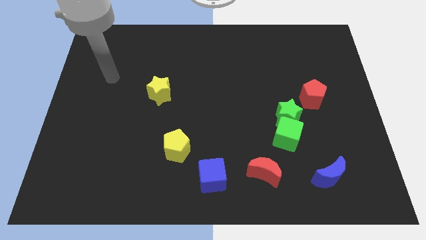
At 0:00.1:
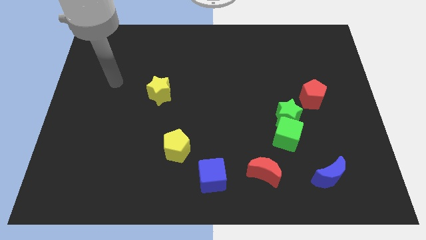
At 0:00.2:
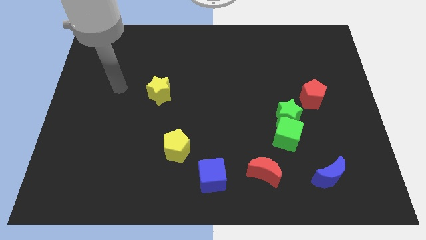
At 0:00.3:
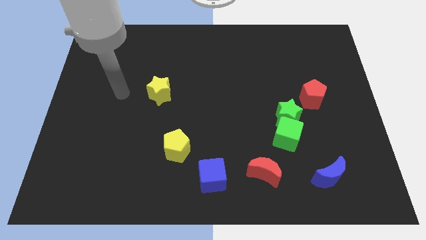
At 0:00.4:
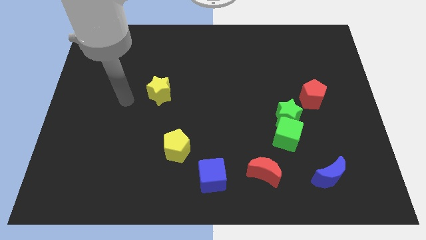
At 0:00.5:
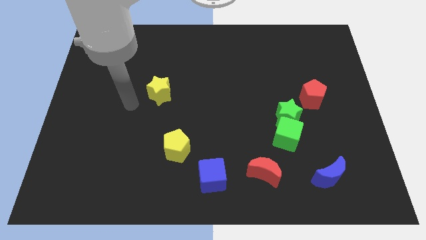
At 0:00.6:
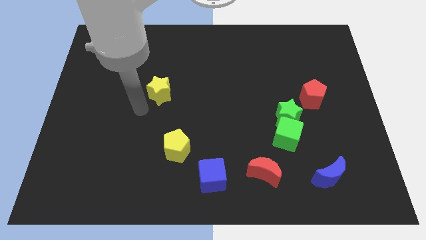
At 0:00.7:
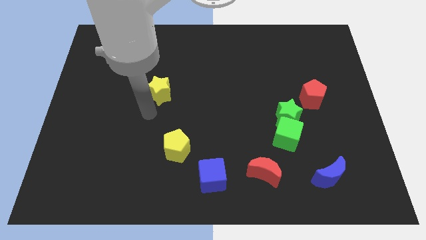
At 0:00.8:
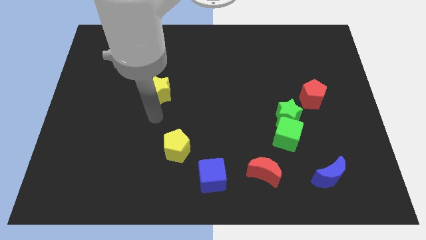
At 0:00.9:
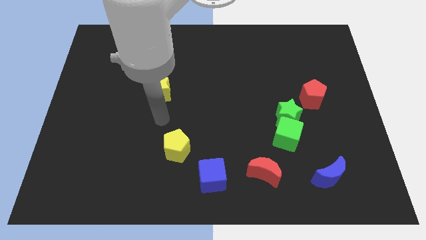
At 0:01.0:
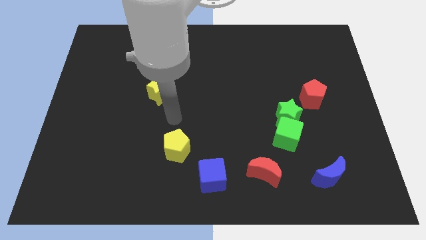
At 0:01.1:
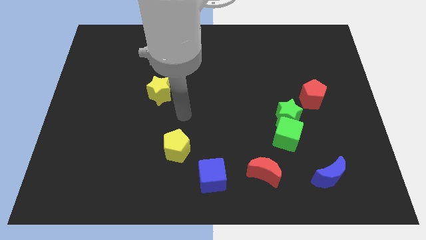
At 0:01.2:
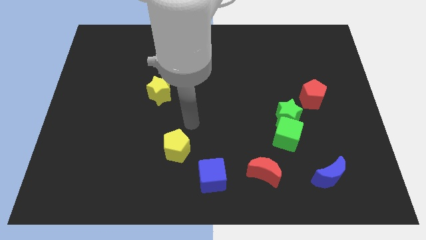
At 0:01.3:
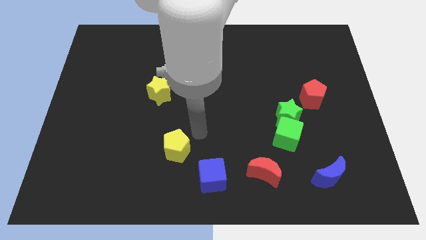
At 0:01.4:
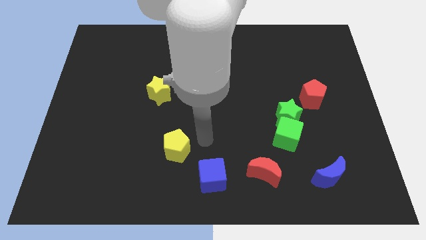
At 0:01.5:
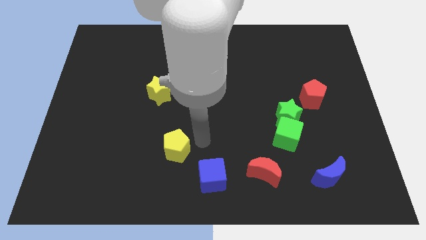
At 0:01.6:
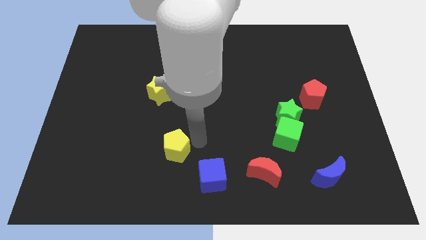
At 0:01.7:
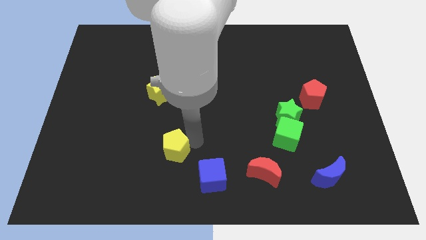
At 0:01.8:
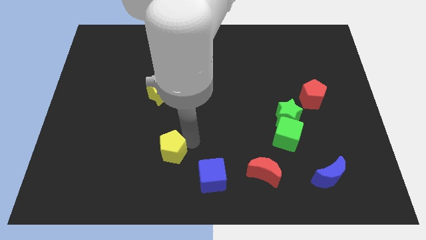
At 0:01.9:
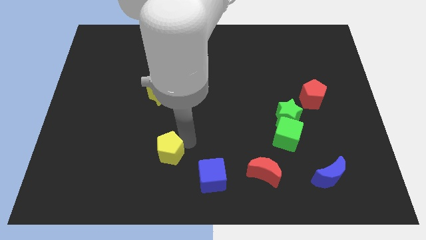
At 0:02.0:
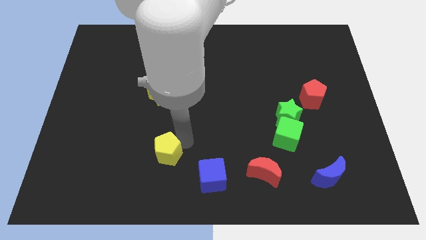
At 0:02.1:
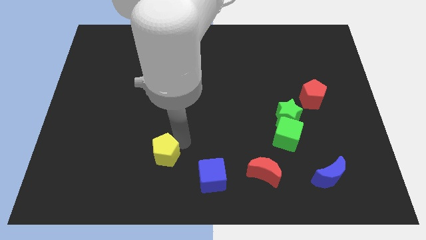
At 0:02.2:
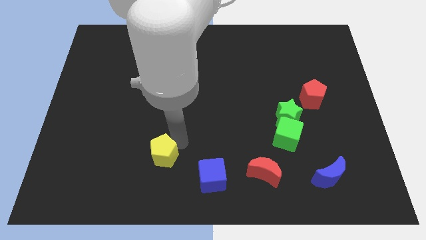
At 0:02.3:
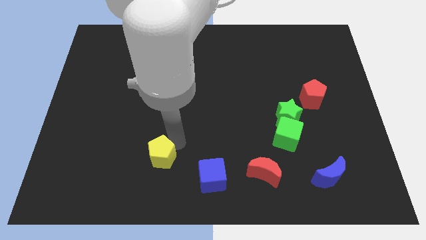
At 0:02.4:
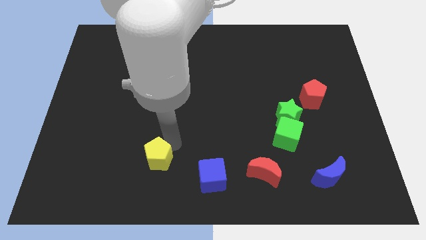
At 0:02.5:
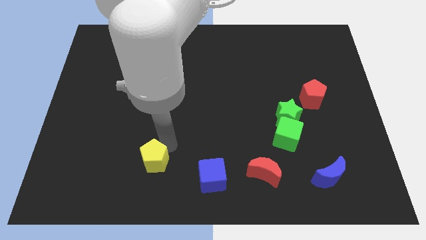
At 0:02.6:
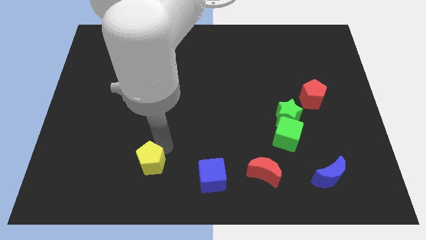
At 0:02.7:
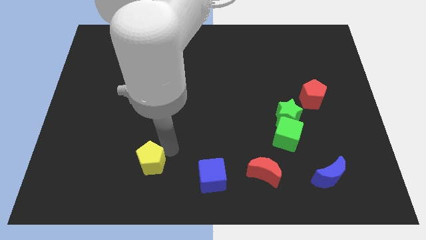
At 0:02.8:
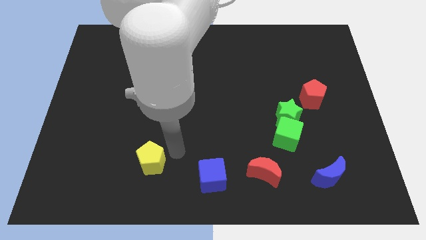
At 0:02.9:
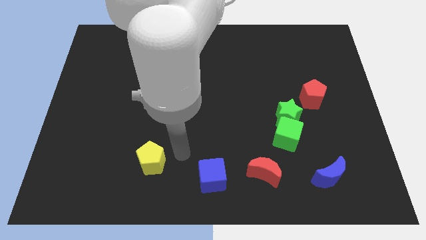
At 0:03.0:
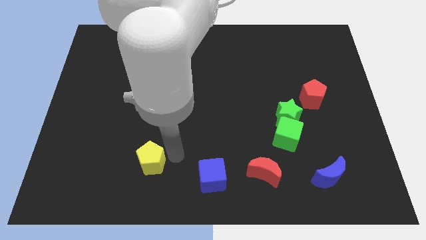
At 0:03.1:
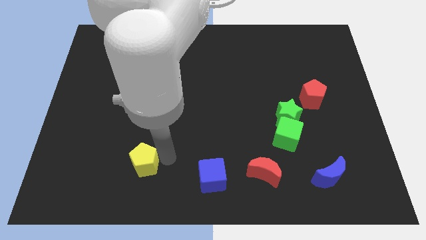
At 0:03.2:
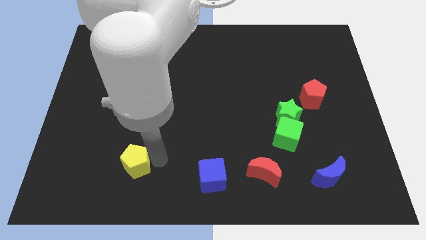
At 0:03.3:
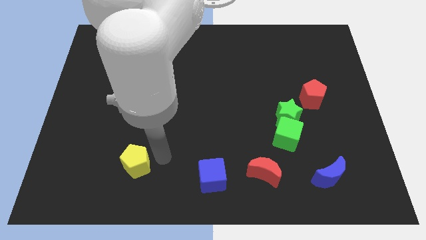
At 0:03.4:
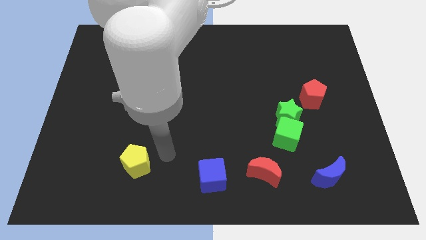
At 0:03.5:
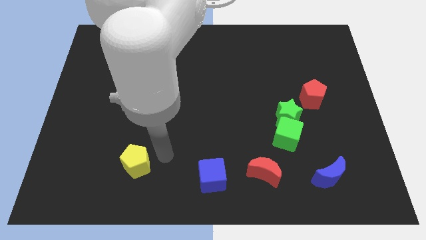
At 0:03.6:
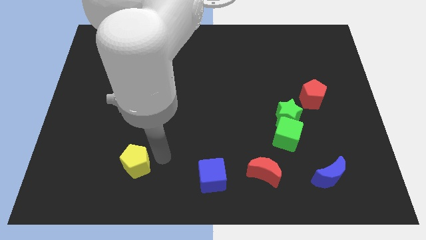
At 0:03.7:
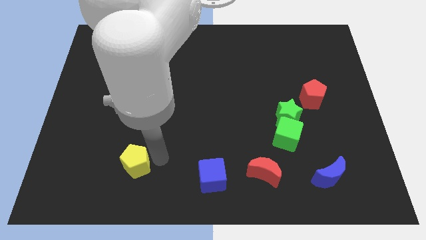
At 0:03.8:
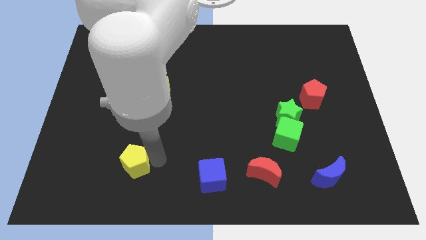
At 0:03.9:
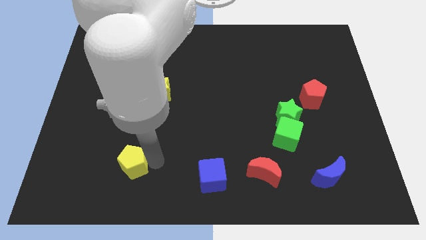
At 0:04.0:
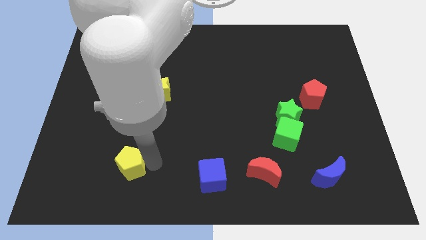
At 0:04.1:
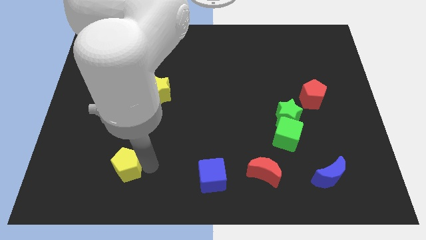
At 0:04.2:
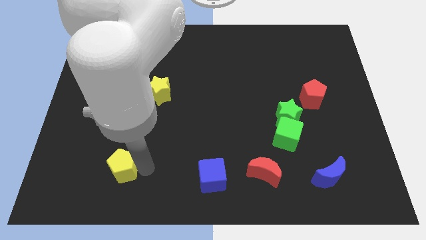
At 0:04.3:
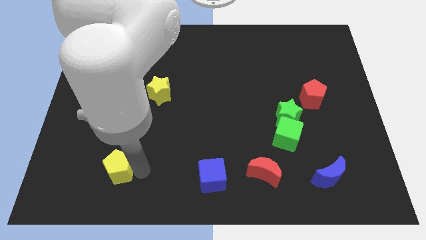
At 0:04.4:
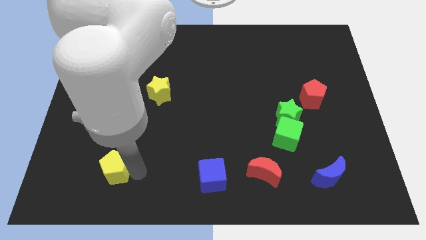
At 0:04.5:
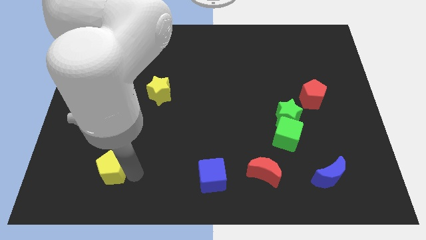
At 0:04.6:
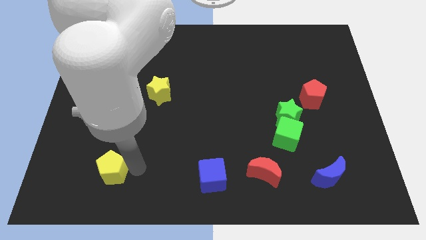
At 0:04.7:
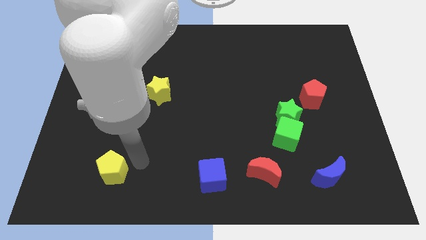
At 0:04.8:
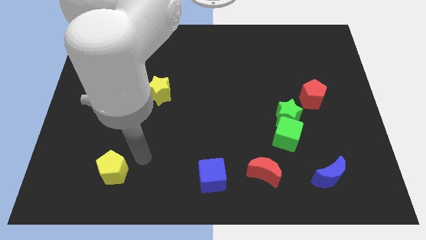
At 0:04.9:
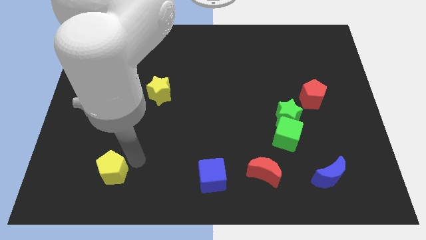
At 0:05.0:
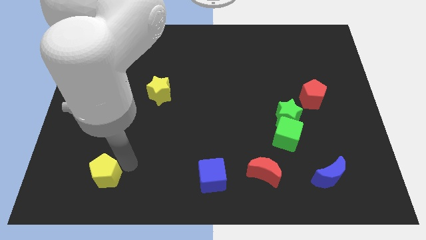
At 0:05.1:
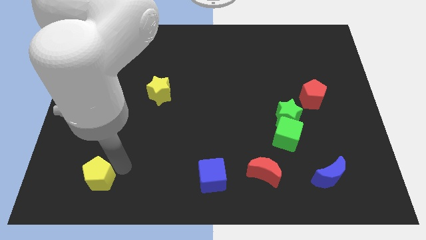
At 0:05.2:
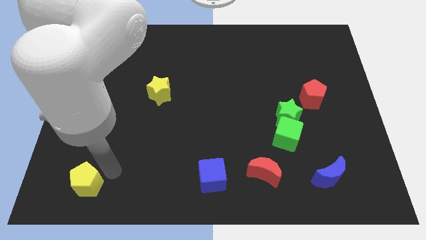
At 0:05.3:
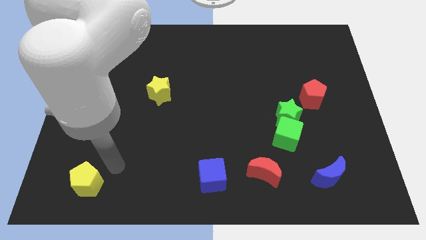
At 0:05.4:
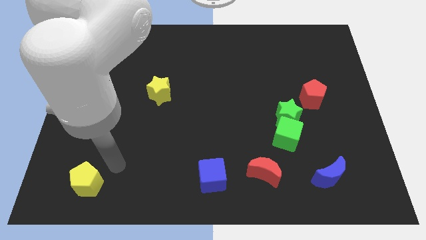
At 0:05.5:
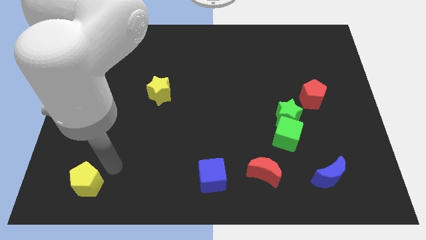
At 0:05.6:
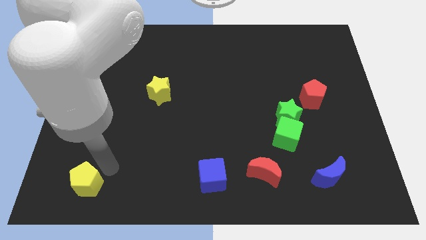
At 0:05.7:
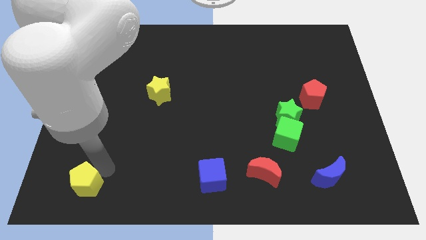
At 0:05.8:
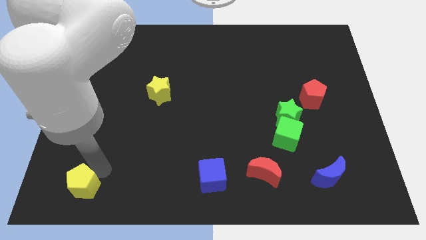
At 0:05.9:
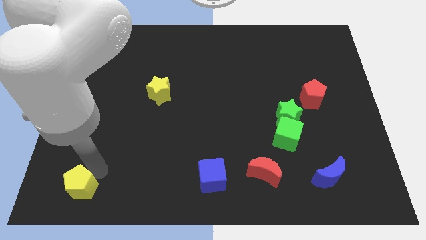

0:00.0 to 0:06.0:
slide the yellow pentagon to the bottom left corner

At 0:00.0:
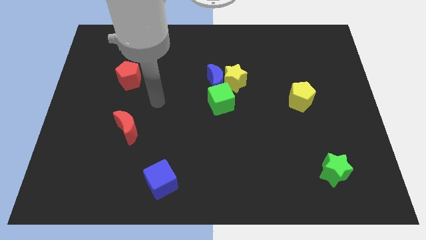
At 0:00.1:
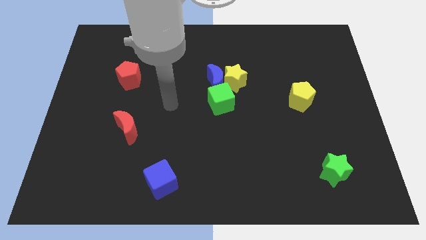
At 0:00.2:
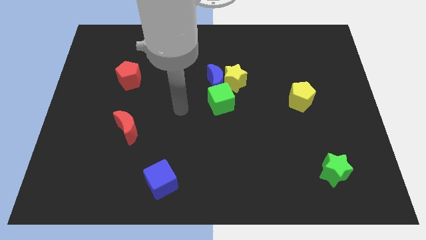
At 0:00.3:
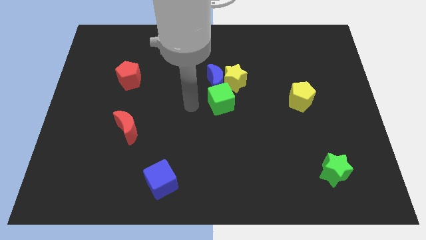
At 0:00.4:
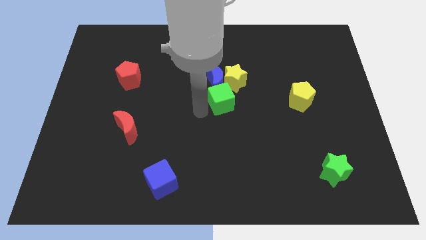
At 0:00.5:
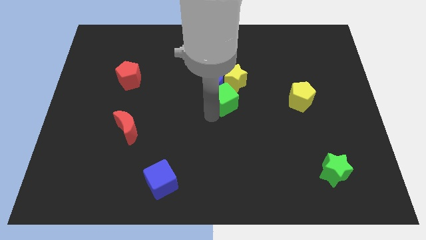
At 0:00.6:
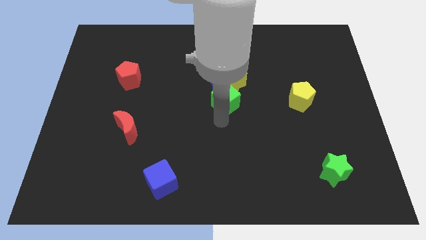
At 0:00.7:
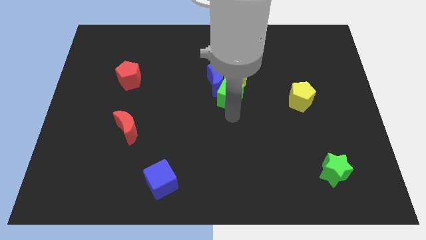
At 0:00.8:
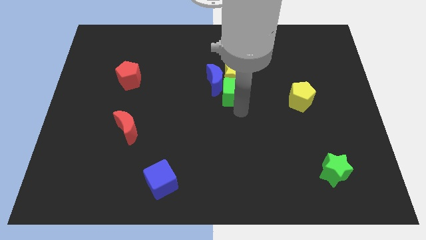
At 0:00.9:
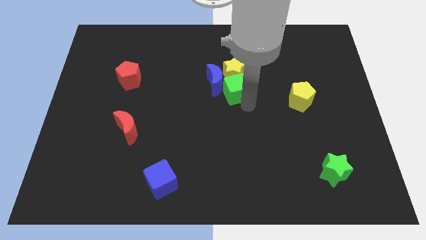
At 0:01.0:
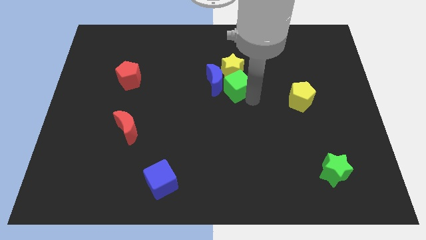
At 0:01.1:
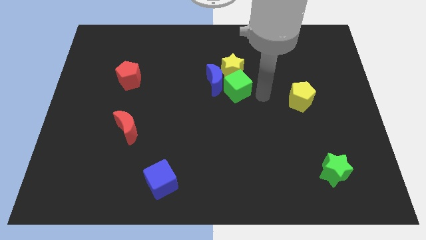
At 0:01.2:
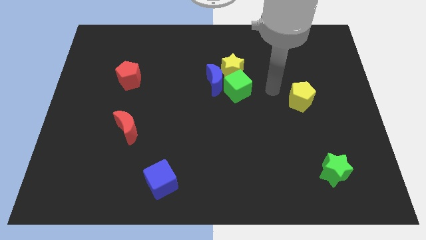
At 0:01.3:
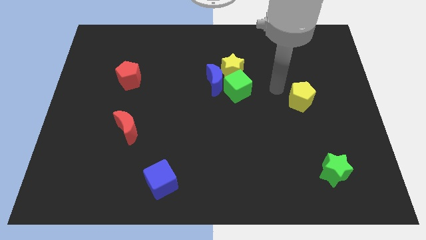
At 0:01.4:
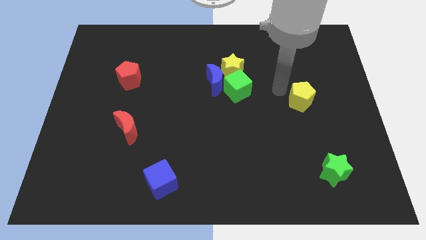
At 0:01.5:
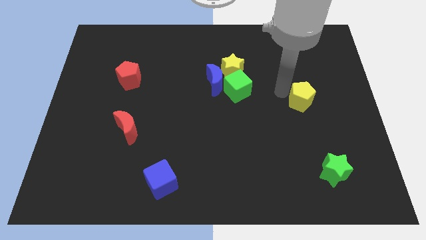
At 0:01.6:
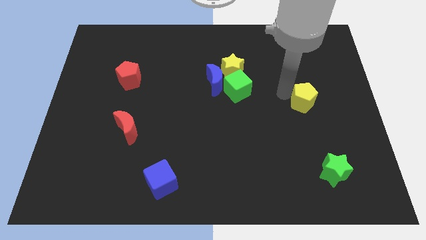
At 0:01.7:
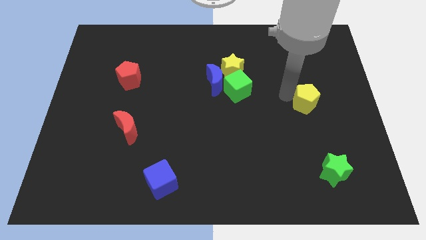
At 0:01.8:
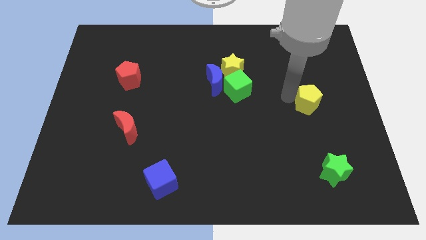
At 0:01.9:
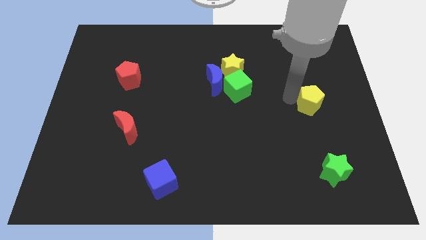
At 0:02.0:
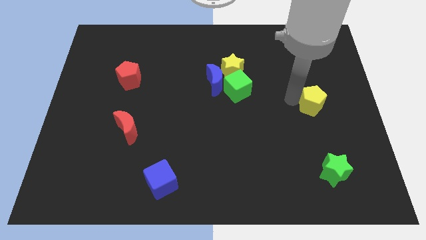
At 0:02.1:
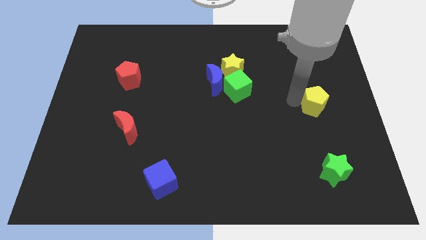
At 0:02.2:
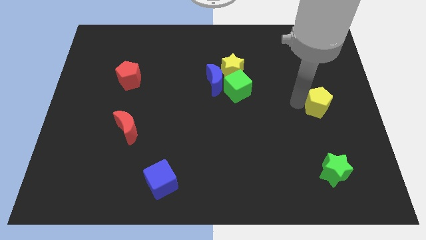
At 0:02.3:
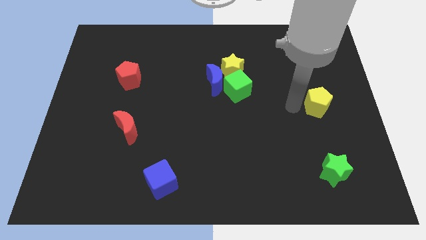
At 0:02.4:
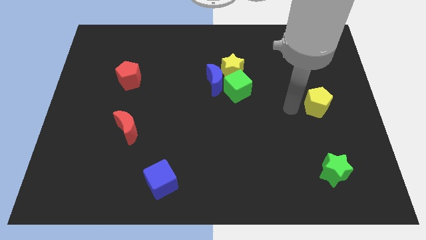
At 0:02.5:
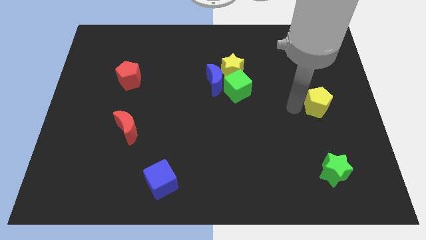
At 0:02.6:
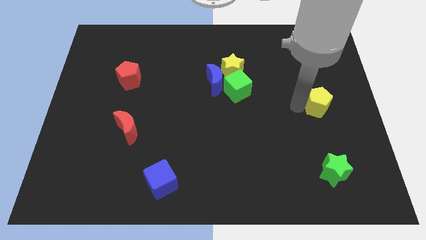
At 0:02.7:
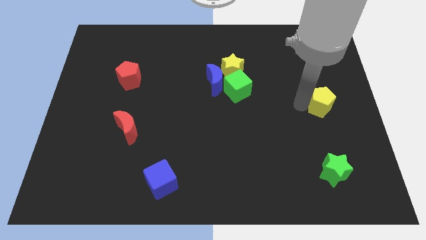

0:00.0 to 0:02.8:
put the yellow pentagon to the center right
